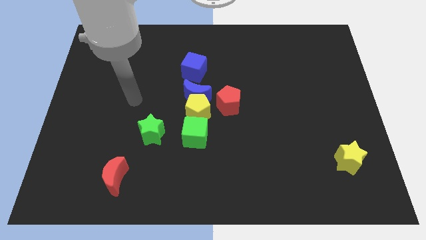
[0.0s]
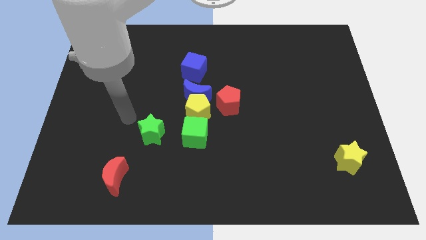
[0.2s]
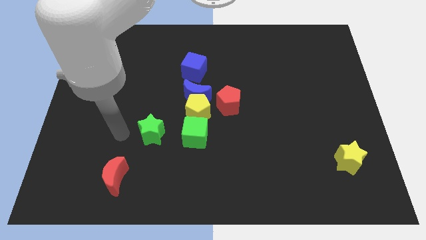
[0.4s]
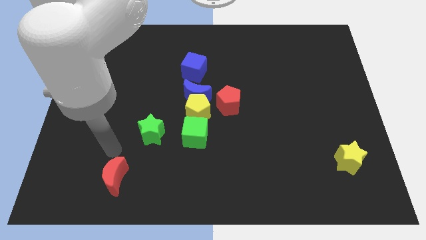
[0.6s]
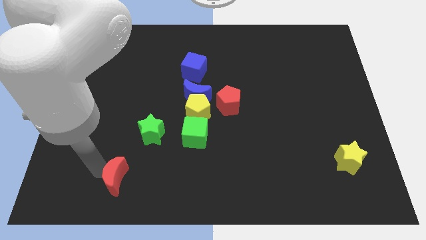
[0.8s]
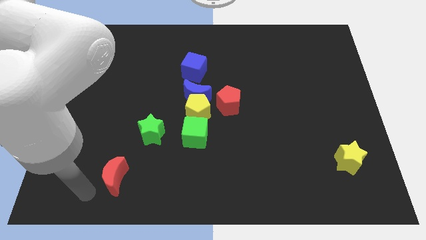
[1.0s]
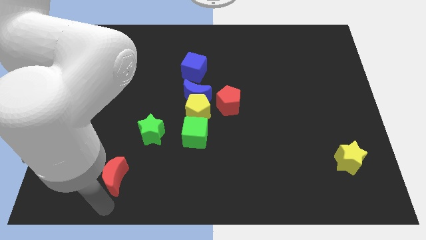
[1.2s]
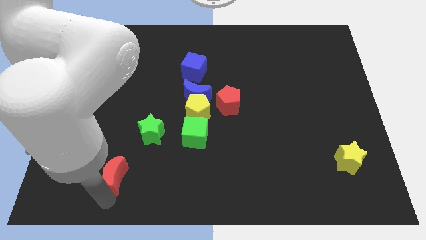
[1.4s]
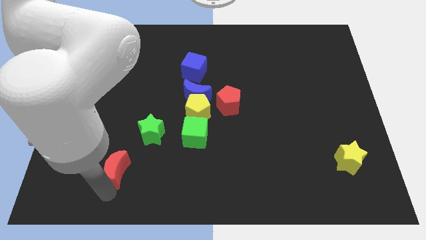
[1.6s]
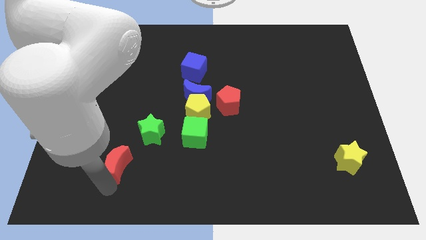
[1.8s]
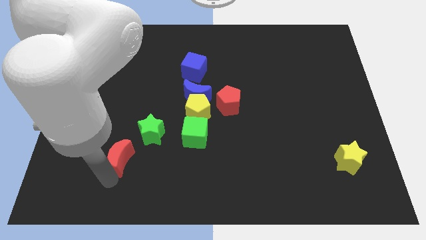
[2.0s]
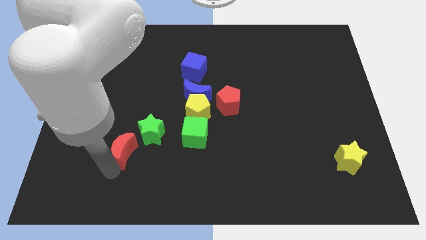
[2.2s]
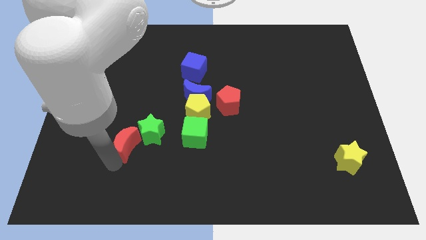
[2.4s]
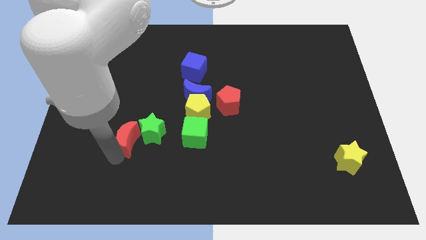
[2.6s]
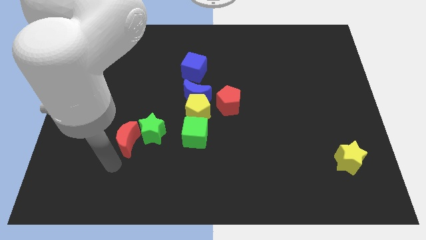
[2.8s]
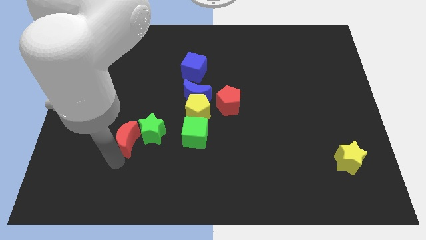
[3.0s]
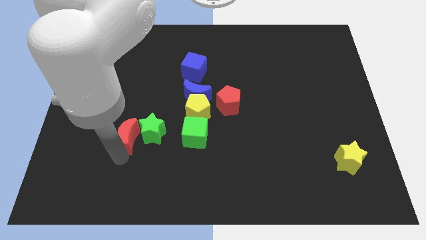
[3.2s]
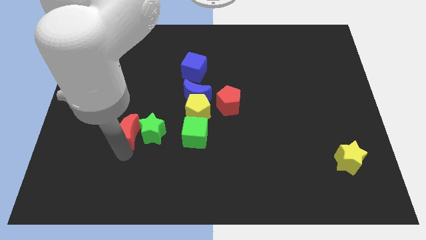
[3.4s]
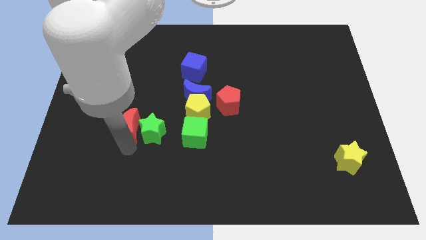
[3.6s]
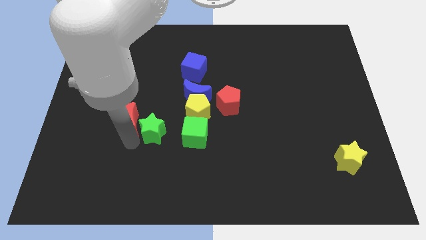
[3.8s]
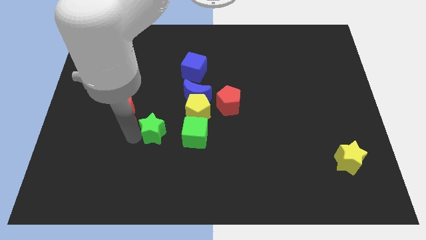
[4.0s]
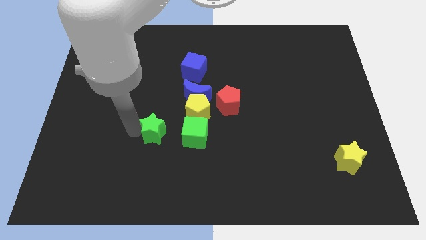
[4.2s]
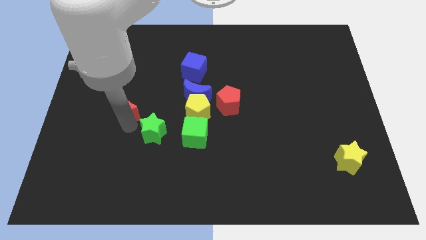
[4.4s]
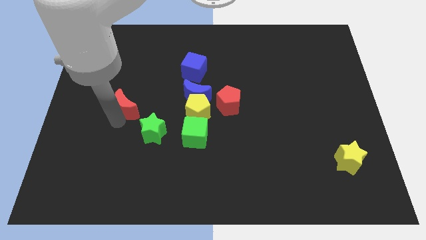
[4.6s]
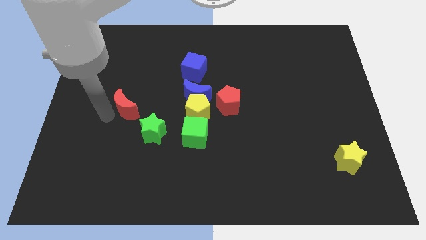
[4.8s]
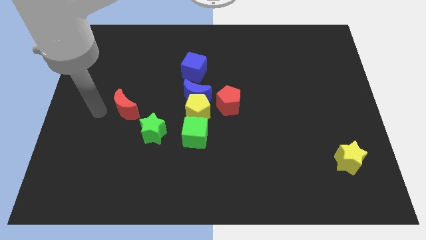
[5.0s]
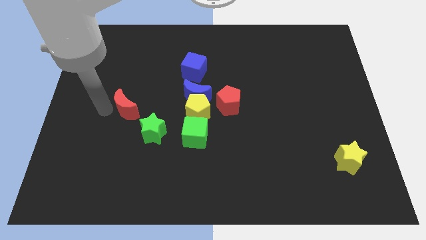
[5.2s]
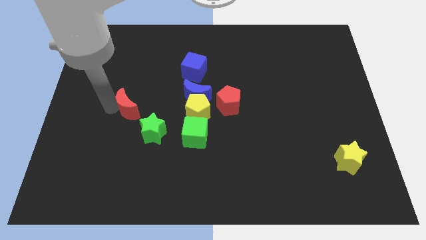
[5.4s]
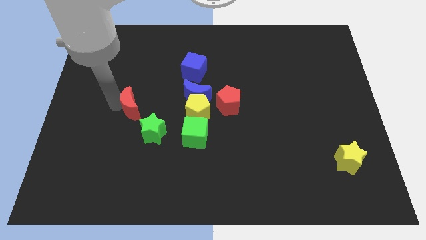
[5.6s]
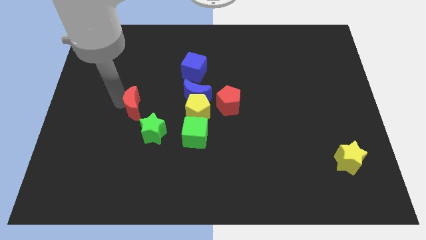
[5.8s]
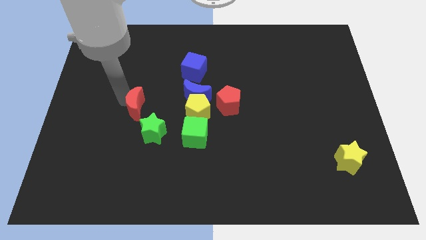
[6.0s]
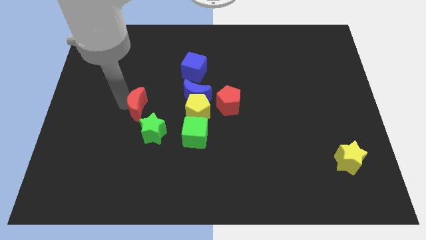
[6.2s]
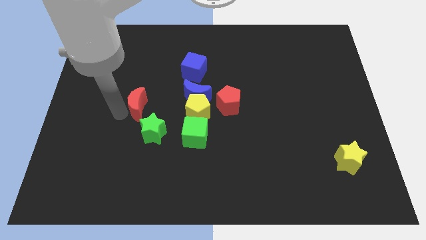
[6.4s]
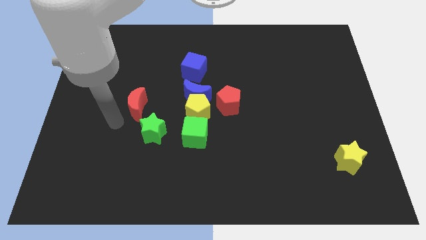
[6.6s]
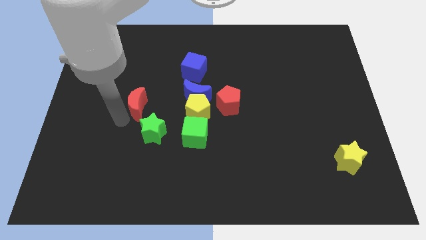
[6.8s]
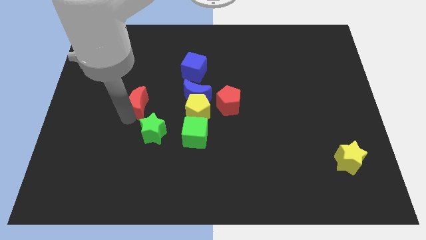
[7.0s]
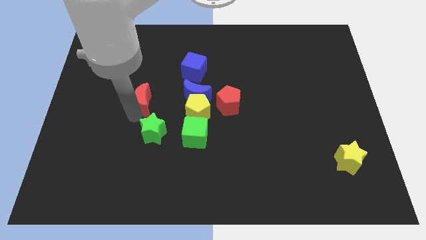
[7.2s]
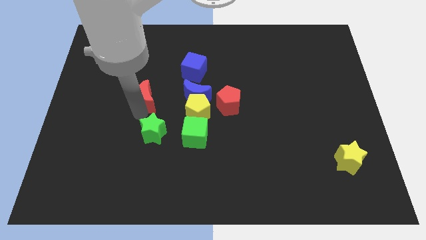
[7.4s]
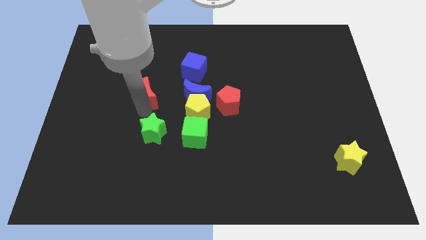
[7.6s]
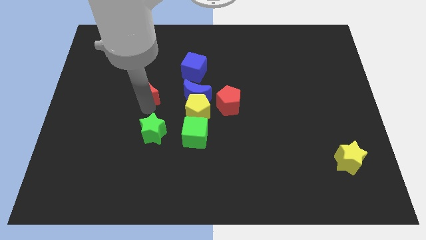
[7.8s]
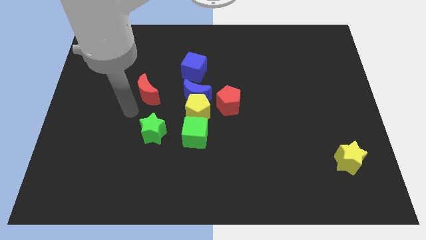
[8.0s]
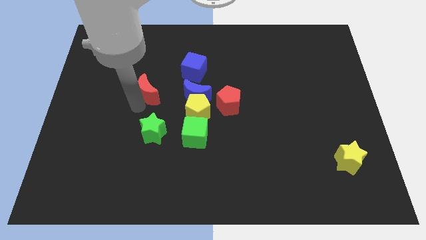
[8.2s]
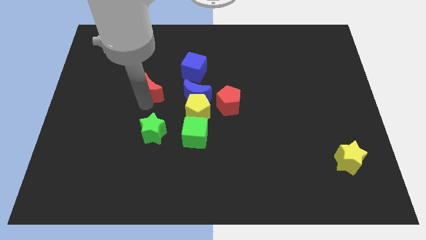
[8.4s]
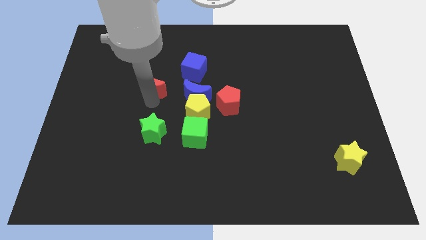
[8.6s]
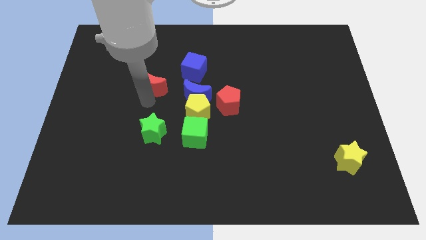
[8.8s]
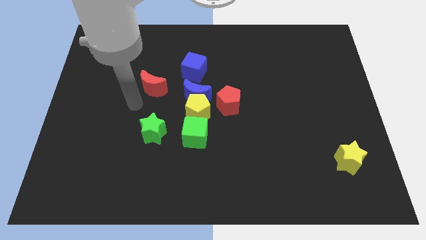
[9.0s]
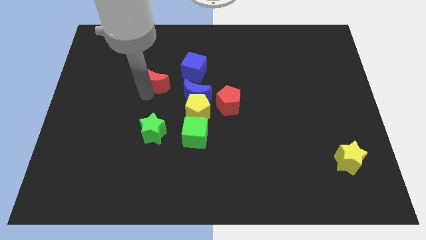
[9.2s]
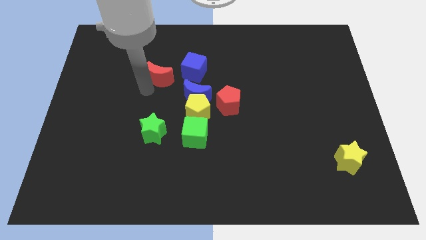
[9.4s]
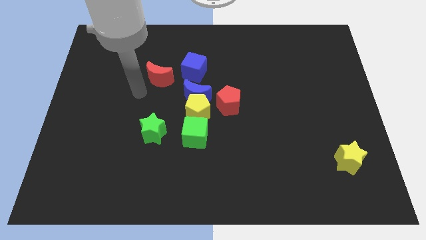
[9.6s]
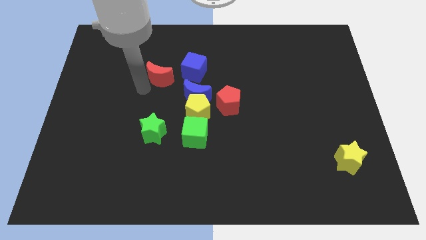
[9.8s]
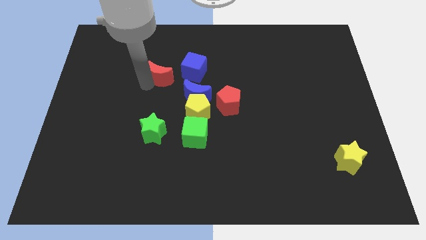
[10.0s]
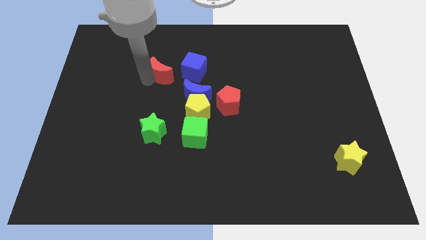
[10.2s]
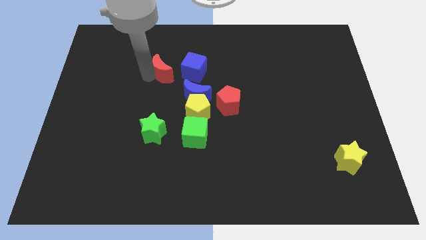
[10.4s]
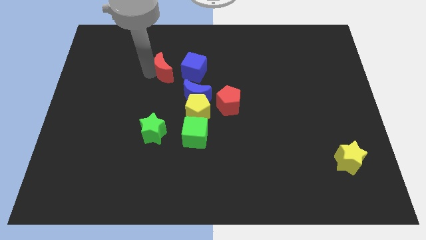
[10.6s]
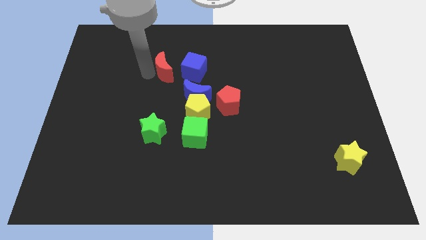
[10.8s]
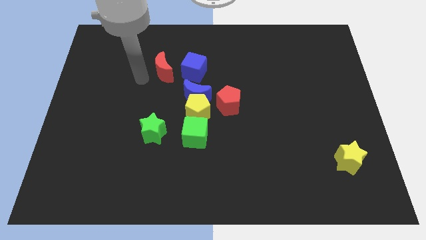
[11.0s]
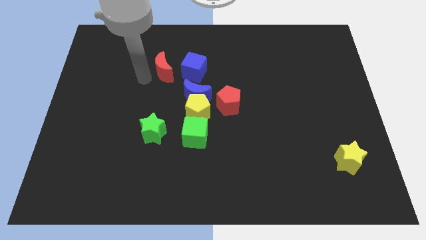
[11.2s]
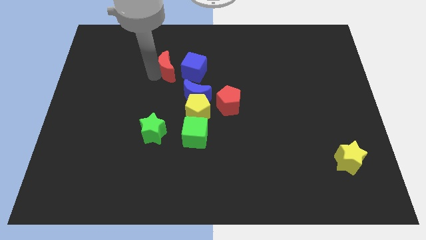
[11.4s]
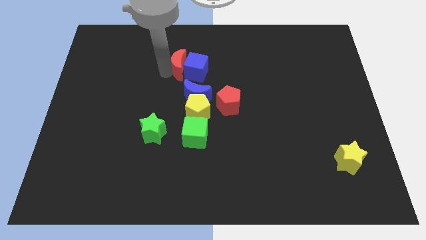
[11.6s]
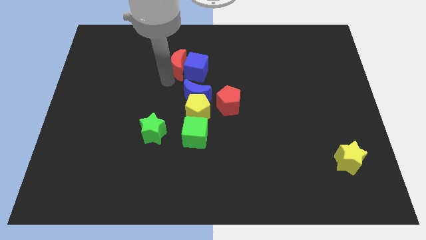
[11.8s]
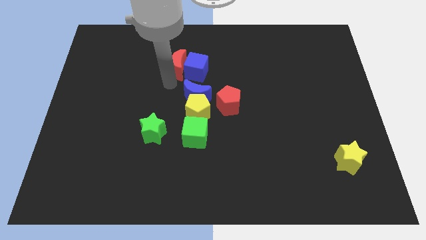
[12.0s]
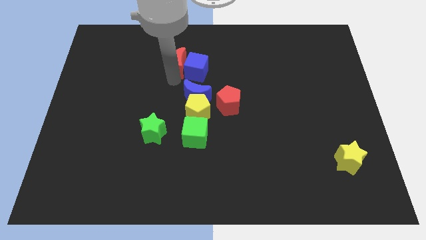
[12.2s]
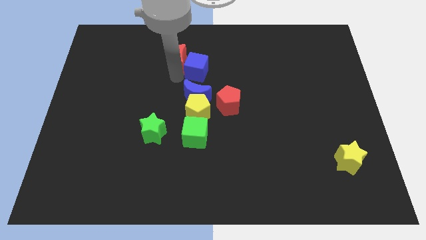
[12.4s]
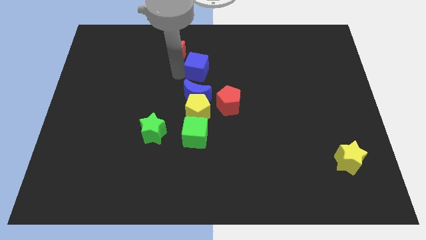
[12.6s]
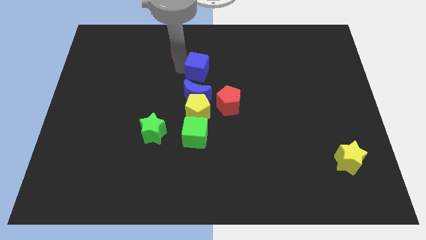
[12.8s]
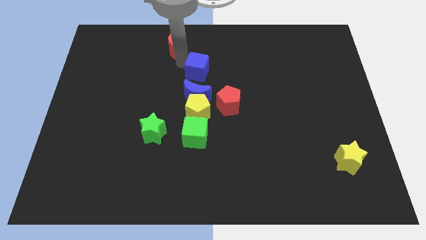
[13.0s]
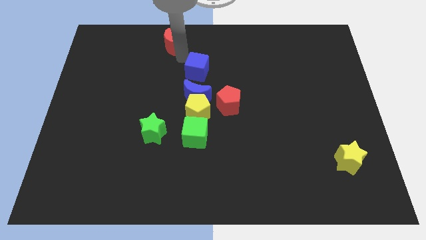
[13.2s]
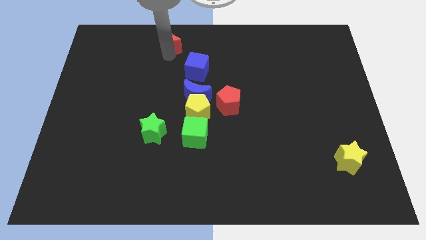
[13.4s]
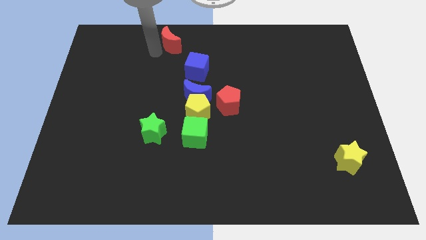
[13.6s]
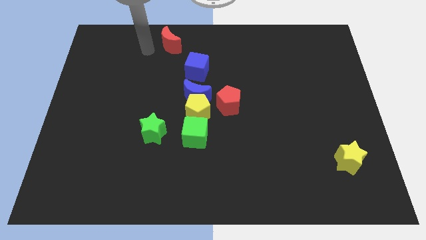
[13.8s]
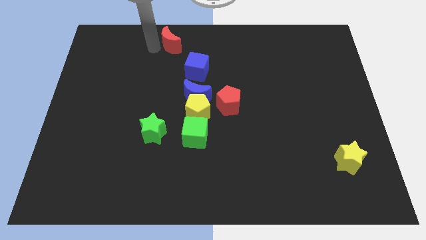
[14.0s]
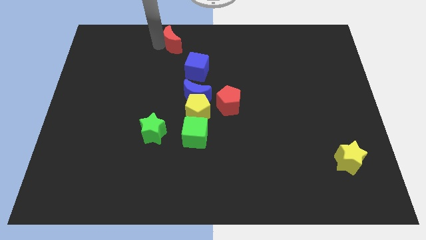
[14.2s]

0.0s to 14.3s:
push the red moon to the top side
